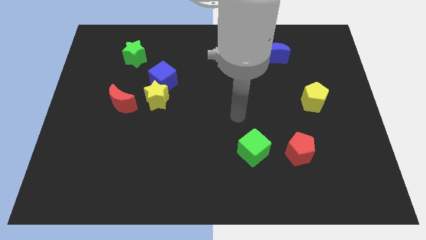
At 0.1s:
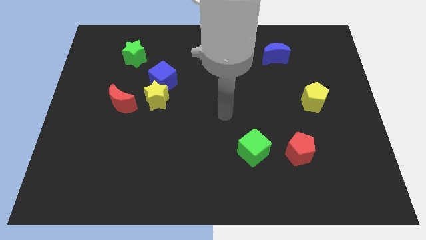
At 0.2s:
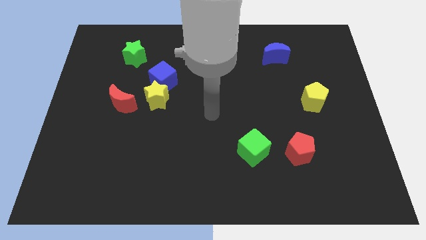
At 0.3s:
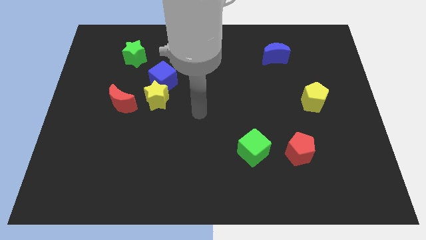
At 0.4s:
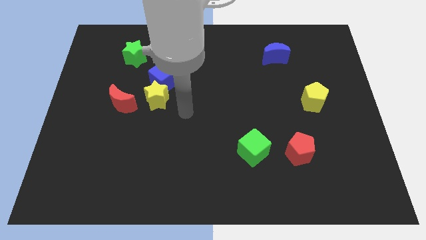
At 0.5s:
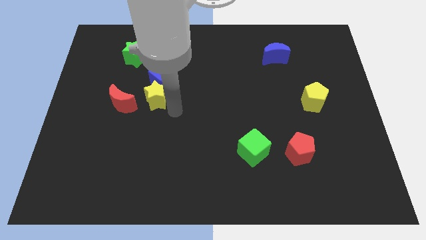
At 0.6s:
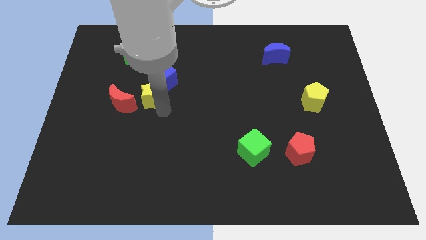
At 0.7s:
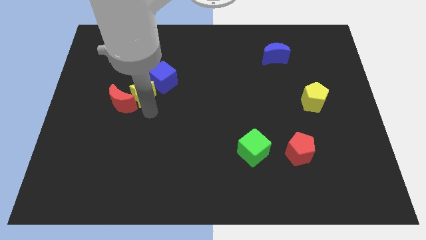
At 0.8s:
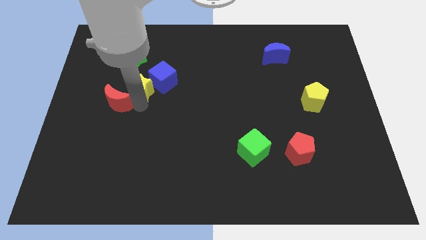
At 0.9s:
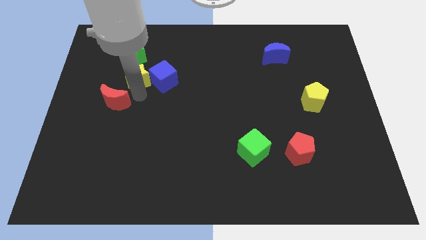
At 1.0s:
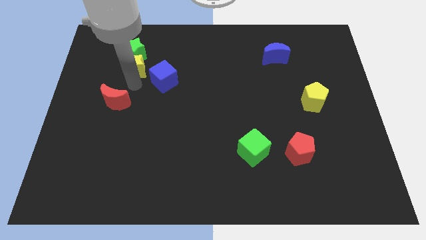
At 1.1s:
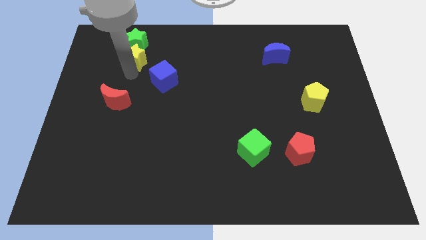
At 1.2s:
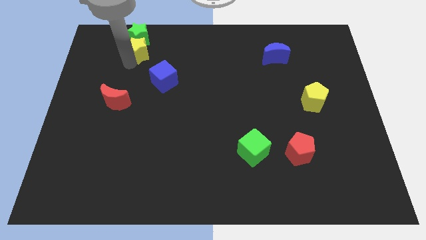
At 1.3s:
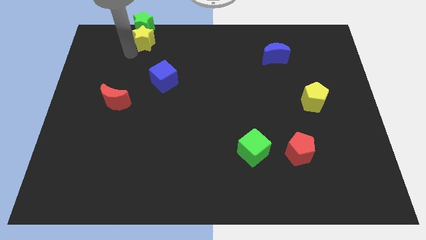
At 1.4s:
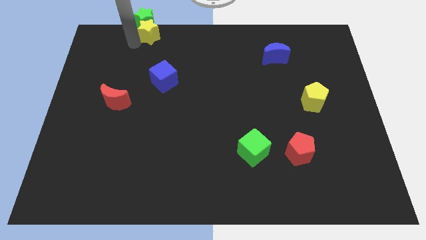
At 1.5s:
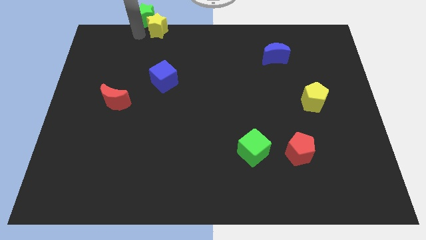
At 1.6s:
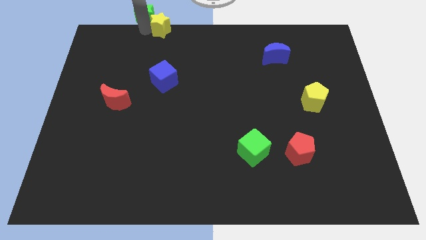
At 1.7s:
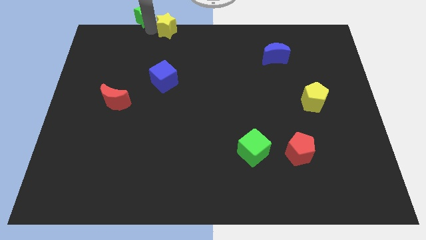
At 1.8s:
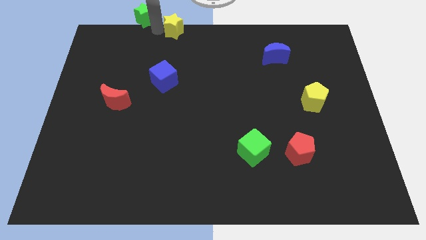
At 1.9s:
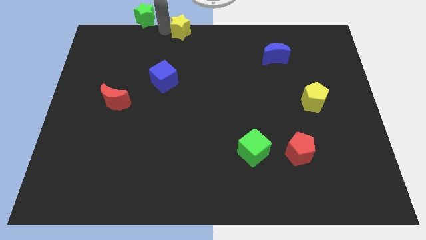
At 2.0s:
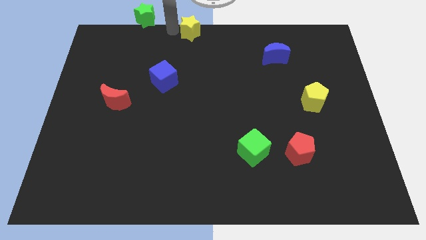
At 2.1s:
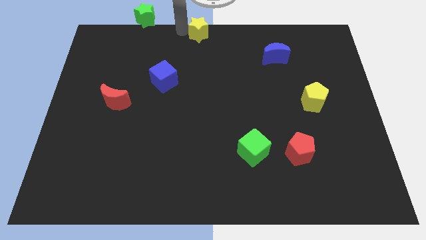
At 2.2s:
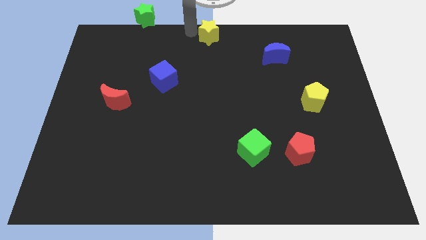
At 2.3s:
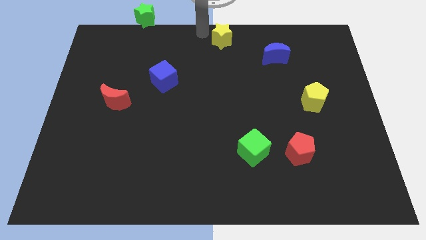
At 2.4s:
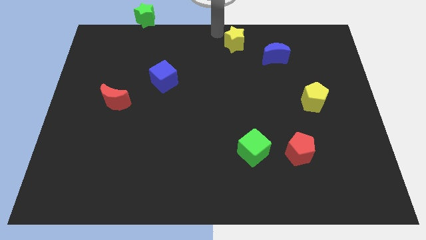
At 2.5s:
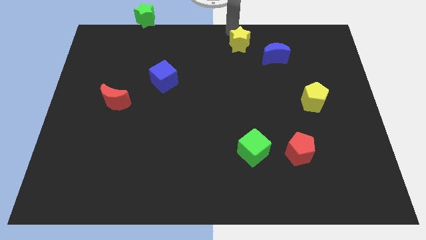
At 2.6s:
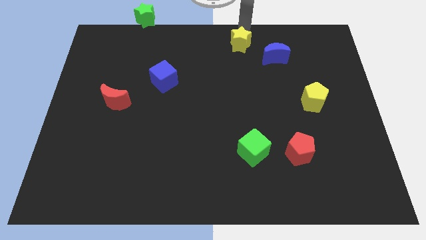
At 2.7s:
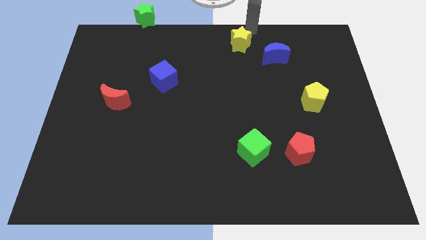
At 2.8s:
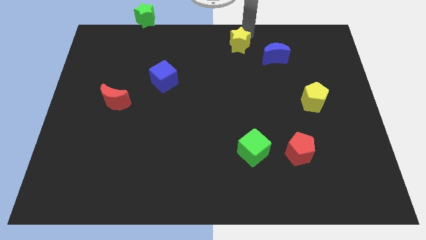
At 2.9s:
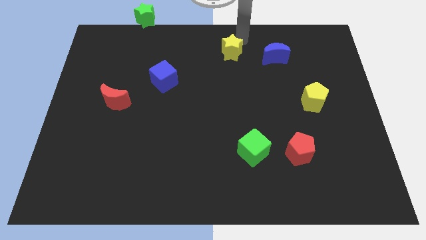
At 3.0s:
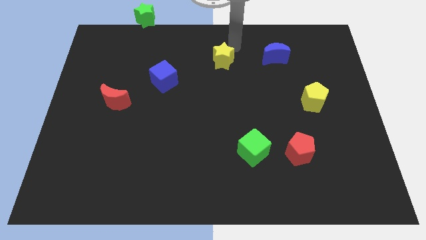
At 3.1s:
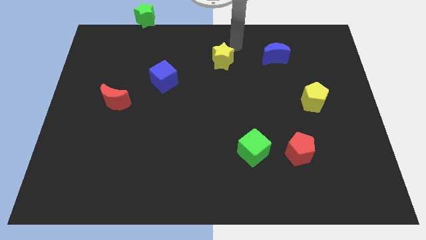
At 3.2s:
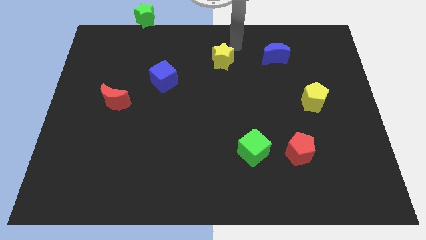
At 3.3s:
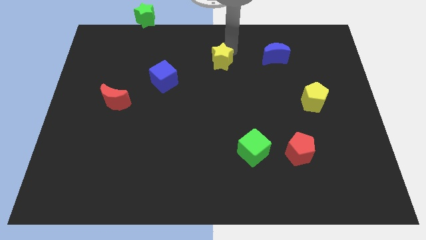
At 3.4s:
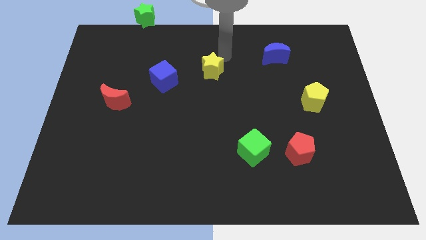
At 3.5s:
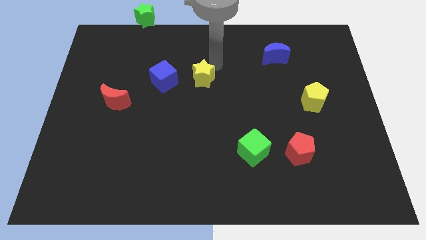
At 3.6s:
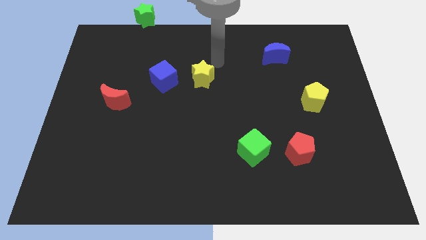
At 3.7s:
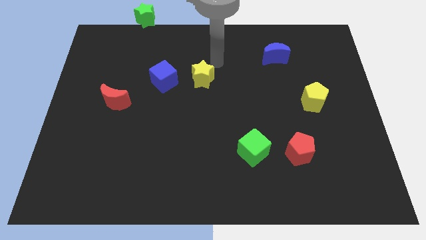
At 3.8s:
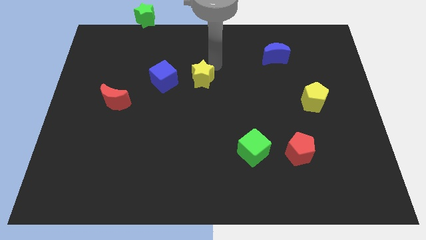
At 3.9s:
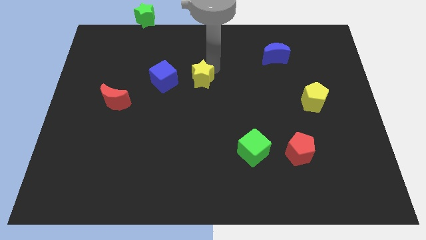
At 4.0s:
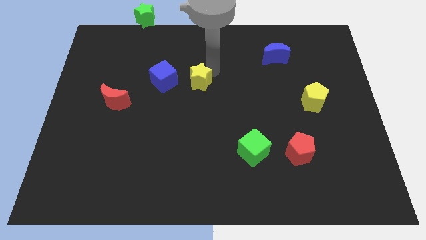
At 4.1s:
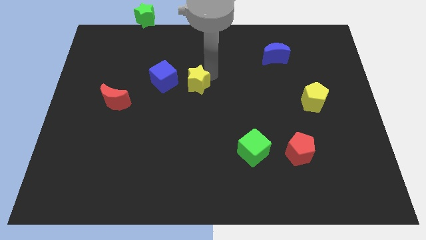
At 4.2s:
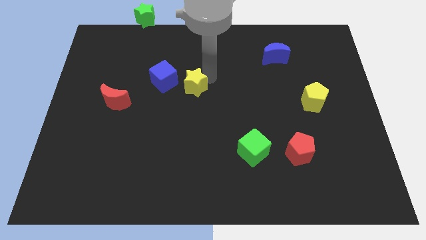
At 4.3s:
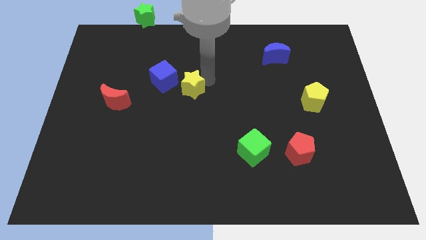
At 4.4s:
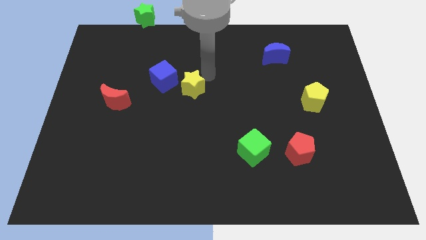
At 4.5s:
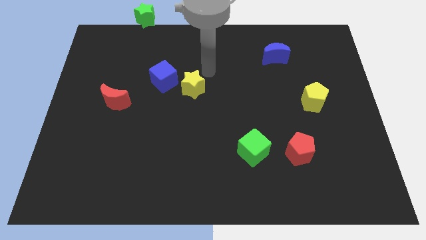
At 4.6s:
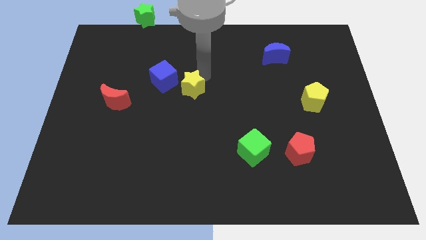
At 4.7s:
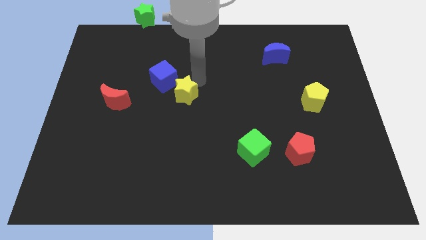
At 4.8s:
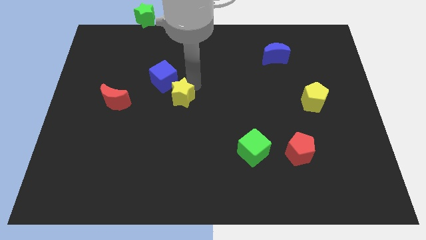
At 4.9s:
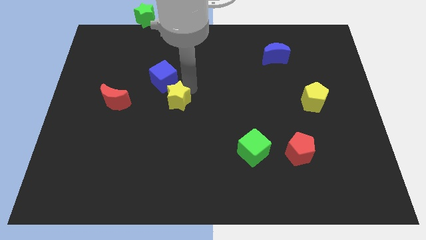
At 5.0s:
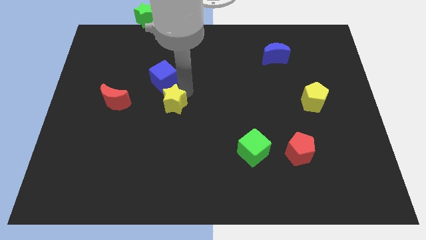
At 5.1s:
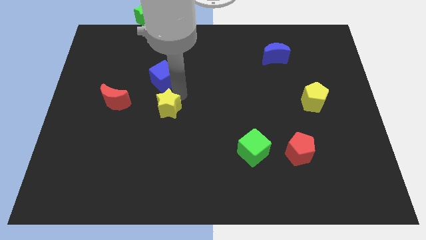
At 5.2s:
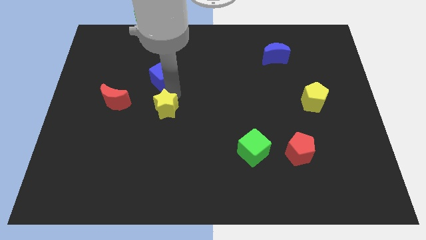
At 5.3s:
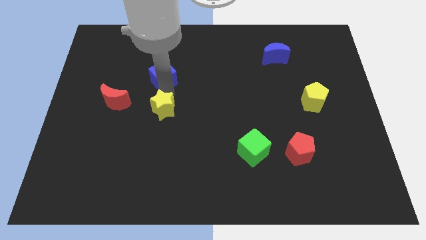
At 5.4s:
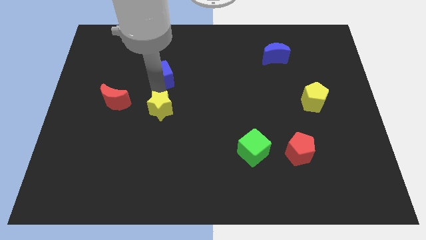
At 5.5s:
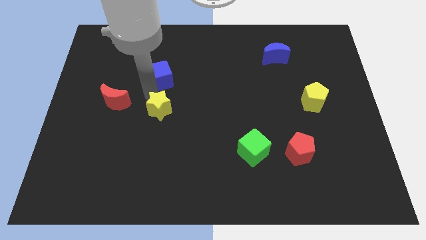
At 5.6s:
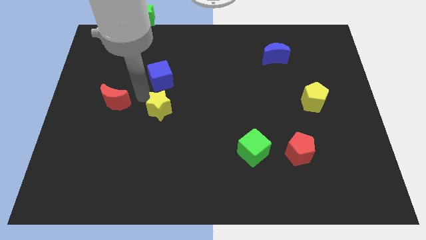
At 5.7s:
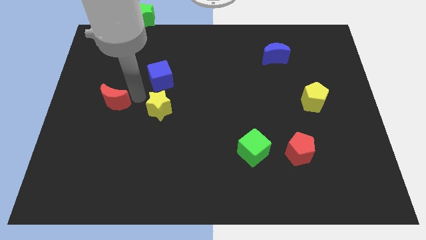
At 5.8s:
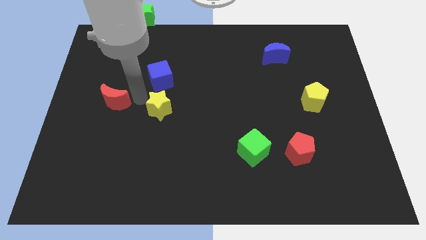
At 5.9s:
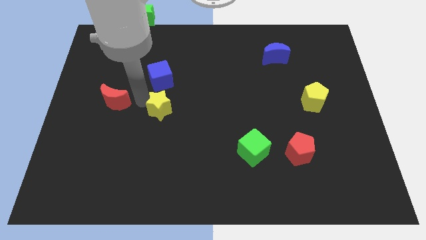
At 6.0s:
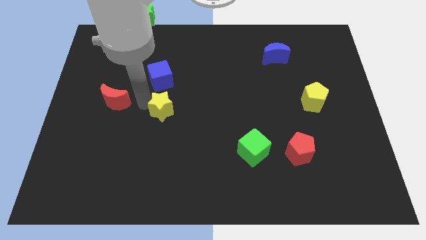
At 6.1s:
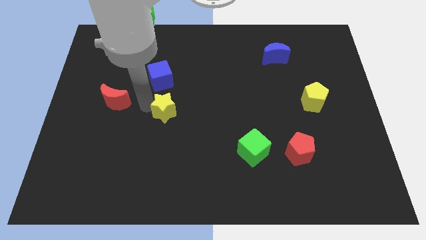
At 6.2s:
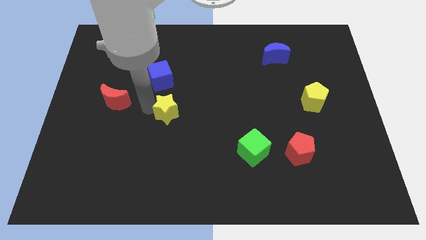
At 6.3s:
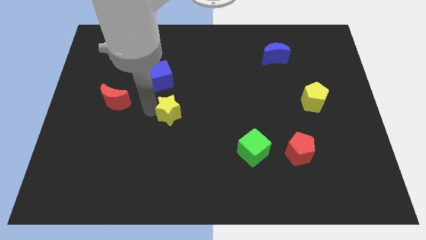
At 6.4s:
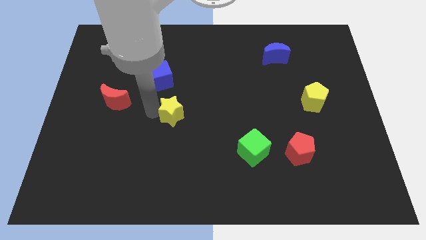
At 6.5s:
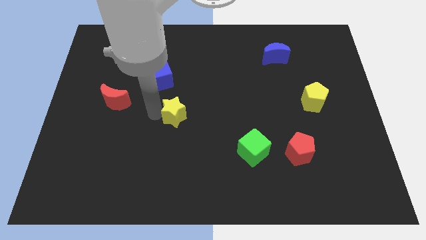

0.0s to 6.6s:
slightly push the yellow star diagonally down and right

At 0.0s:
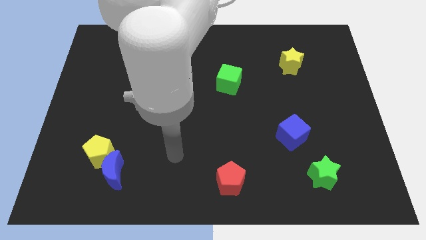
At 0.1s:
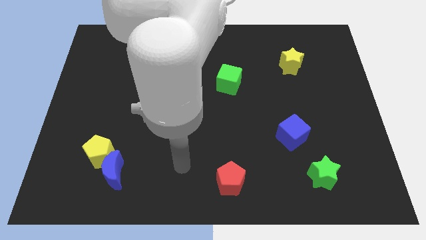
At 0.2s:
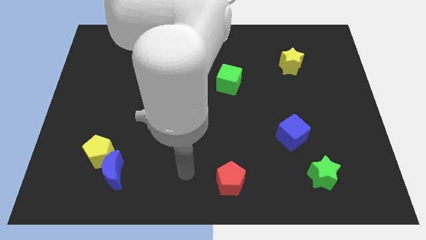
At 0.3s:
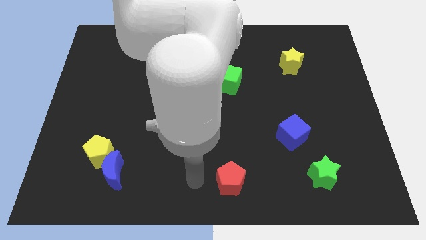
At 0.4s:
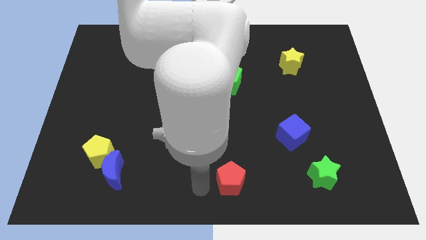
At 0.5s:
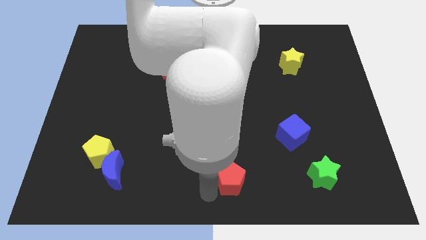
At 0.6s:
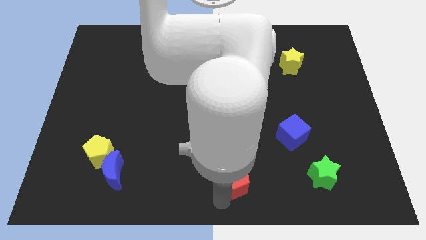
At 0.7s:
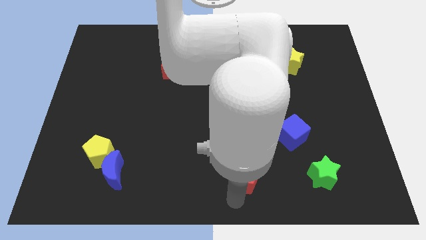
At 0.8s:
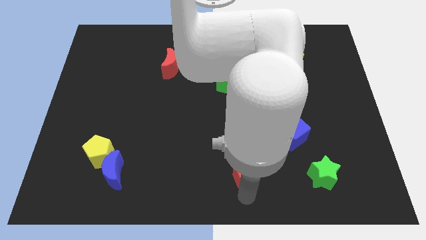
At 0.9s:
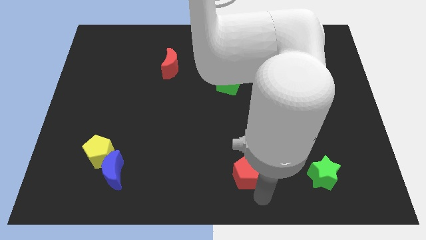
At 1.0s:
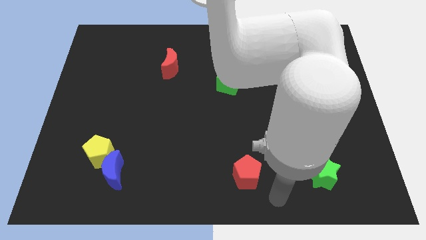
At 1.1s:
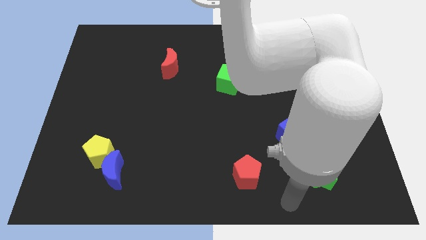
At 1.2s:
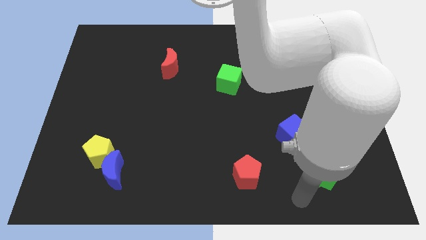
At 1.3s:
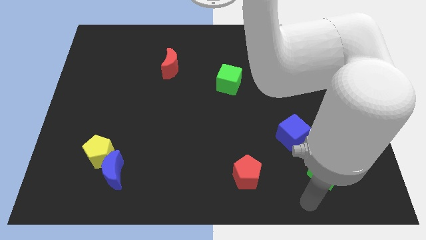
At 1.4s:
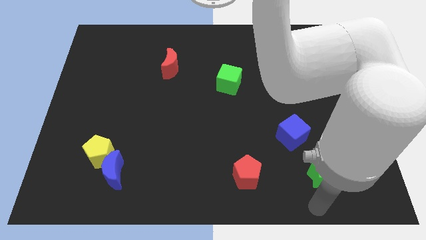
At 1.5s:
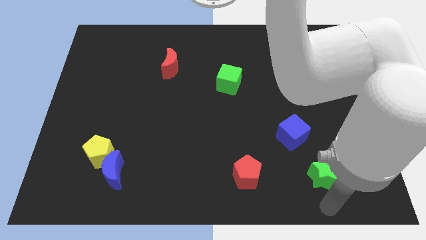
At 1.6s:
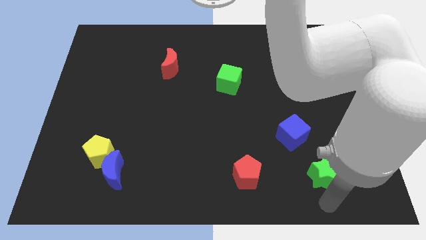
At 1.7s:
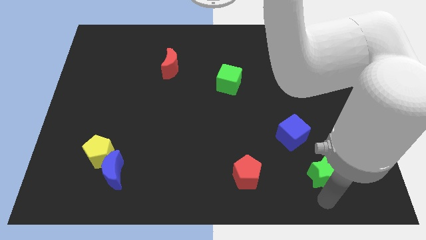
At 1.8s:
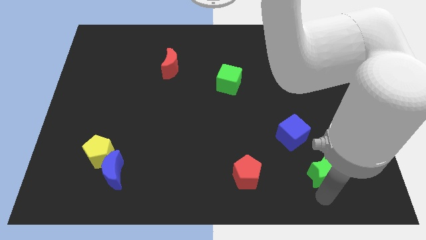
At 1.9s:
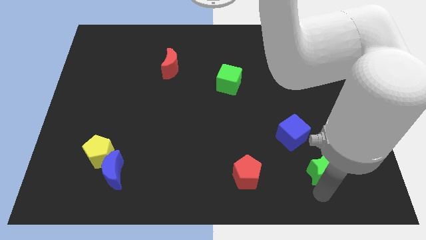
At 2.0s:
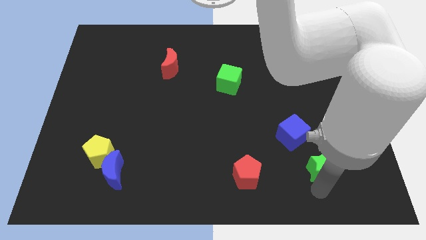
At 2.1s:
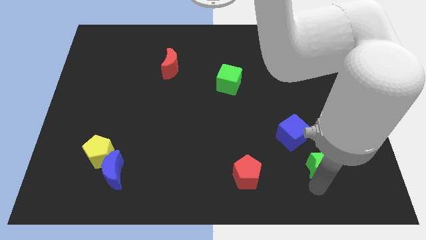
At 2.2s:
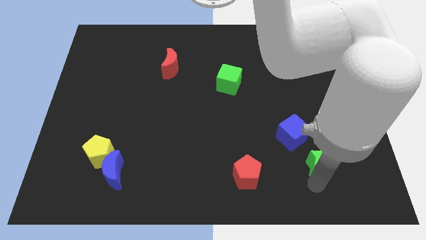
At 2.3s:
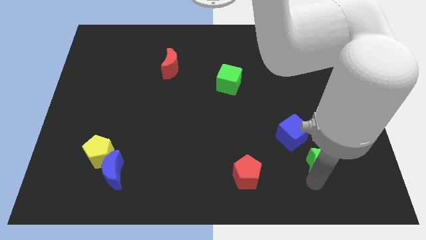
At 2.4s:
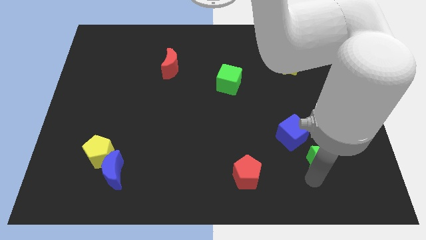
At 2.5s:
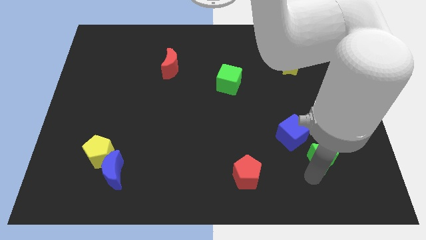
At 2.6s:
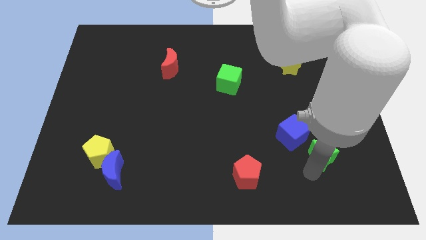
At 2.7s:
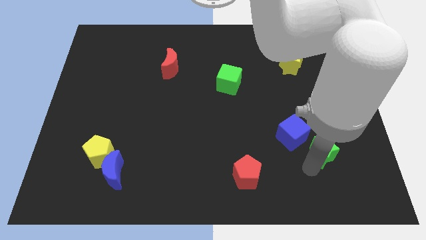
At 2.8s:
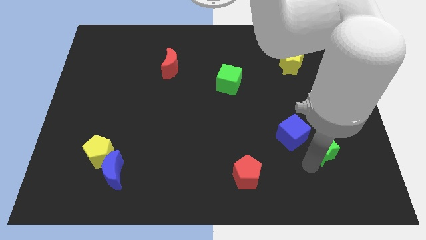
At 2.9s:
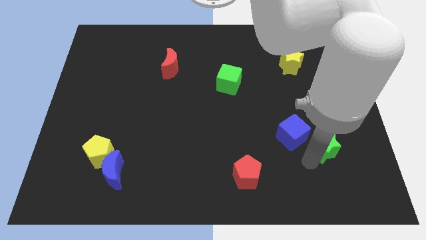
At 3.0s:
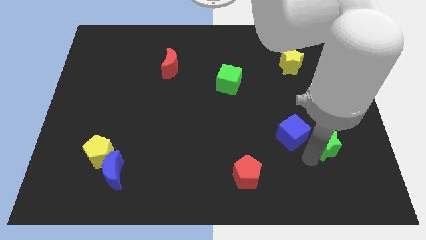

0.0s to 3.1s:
slide the green star slightly upwards
